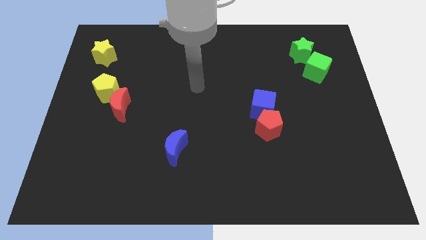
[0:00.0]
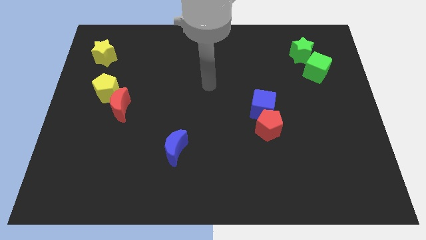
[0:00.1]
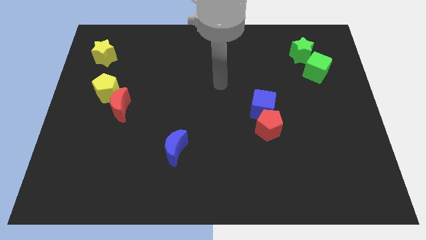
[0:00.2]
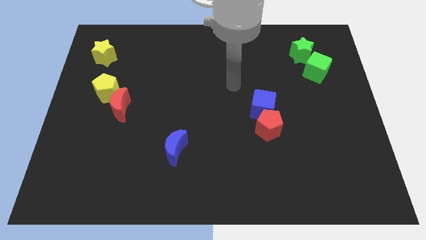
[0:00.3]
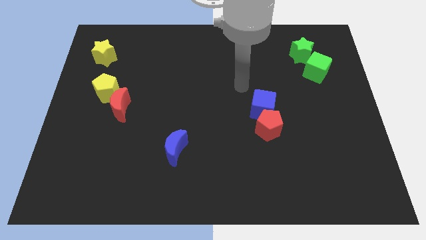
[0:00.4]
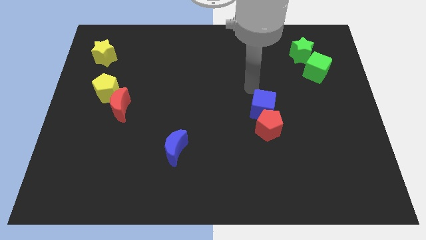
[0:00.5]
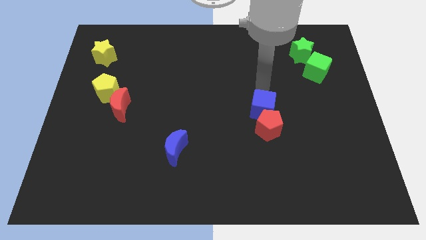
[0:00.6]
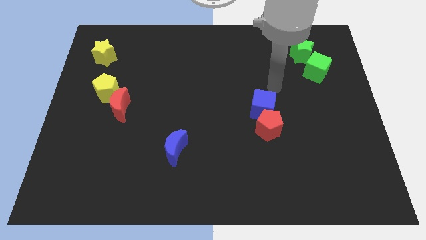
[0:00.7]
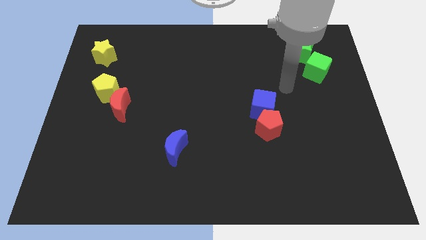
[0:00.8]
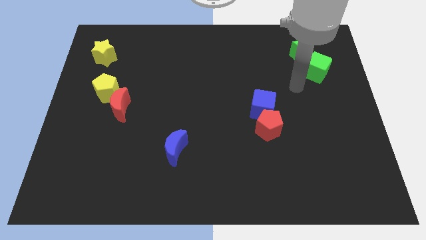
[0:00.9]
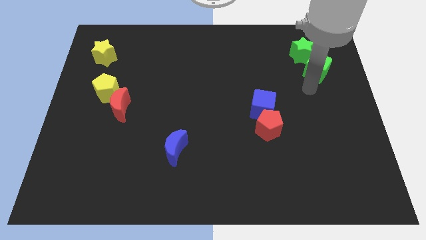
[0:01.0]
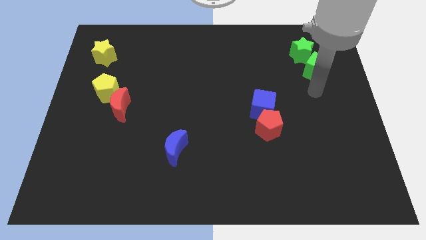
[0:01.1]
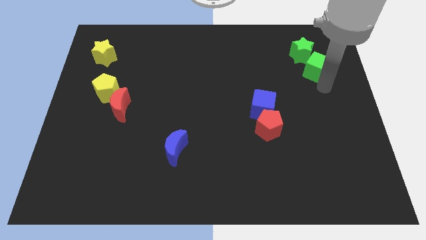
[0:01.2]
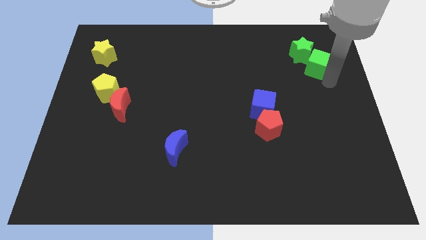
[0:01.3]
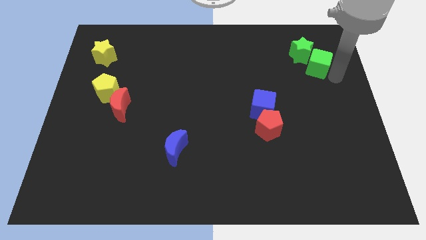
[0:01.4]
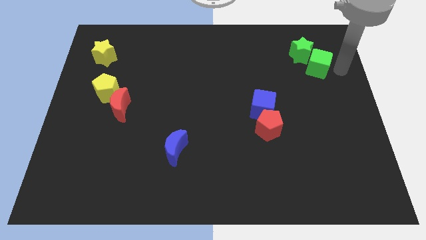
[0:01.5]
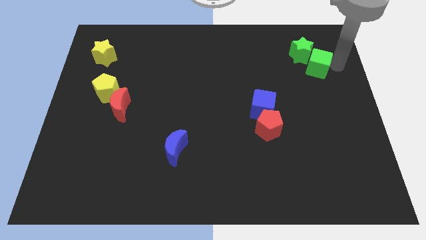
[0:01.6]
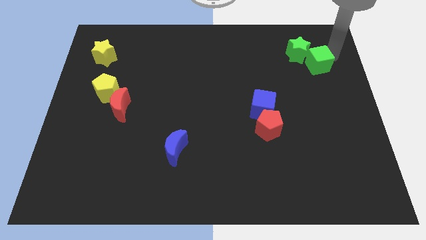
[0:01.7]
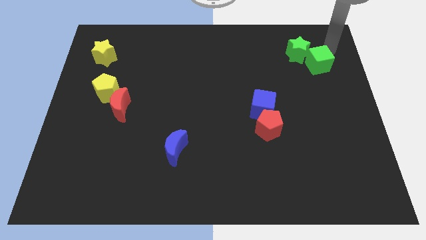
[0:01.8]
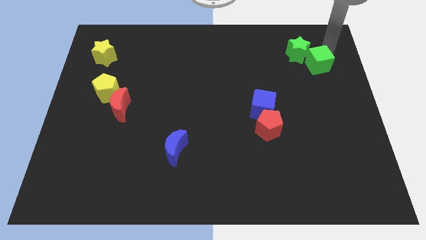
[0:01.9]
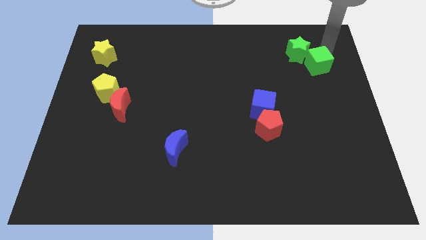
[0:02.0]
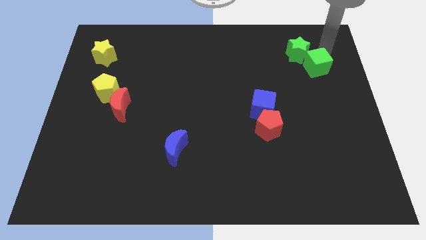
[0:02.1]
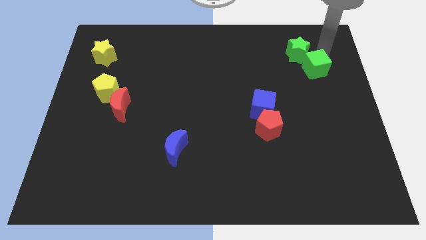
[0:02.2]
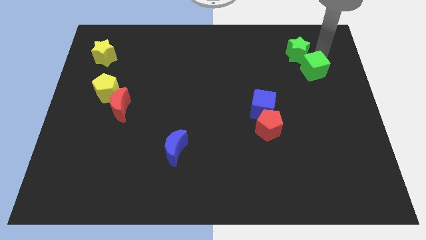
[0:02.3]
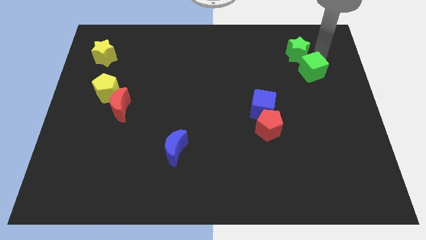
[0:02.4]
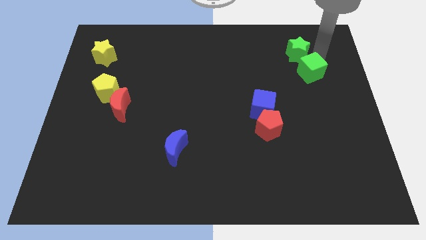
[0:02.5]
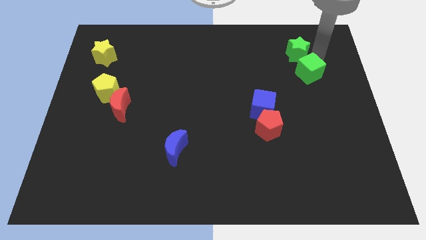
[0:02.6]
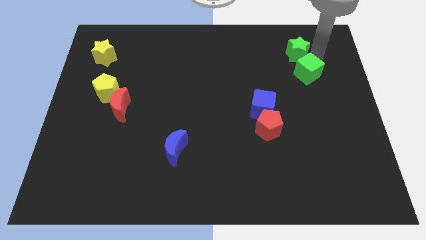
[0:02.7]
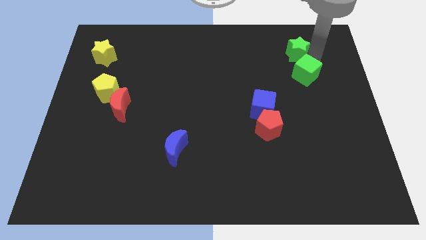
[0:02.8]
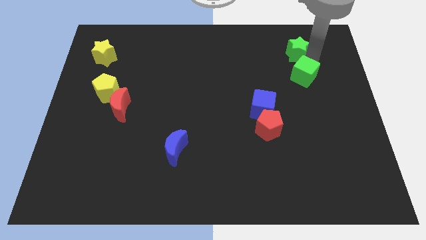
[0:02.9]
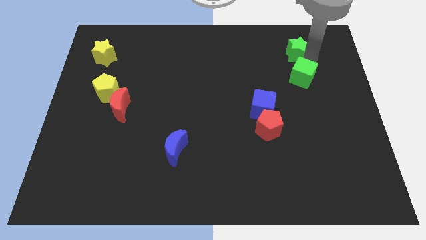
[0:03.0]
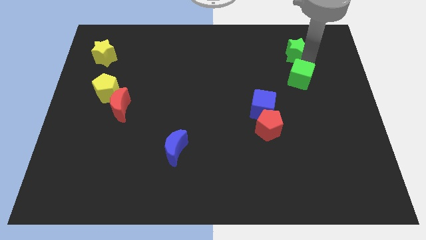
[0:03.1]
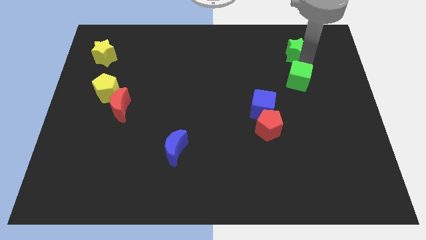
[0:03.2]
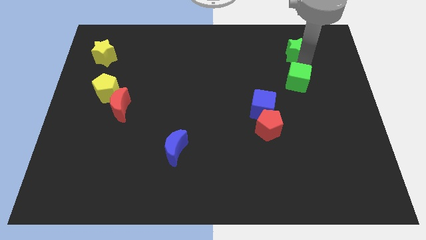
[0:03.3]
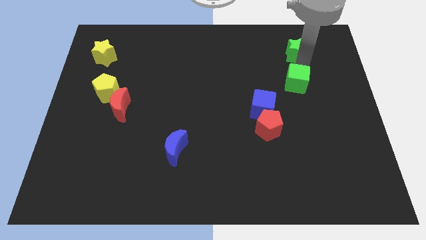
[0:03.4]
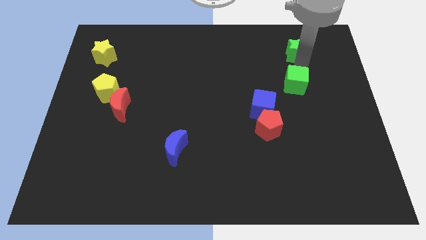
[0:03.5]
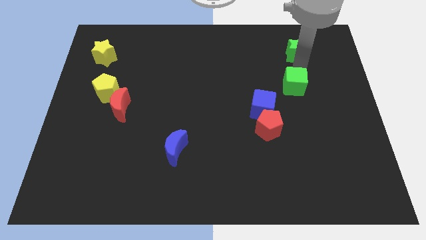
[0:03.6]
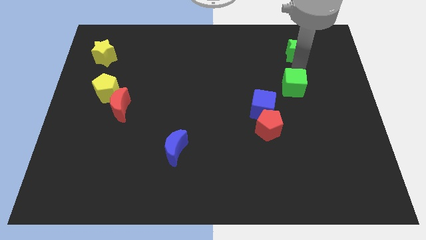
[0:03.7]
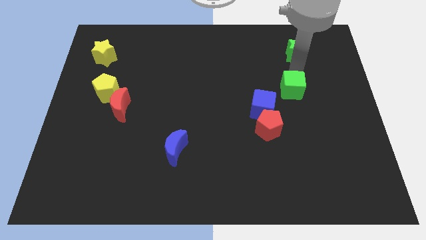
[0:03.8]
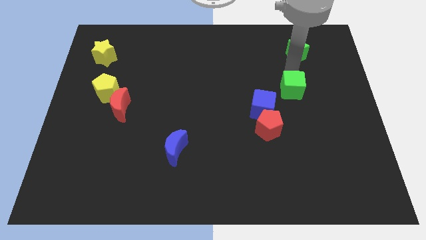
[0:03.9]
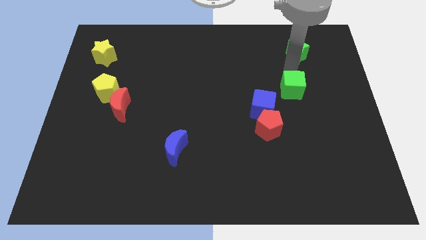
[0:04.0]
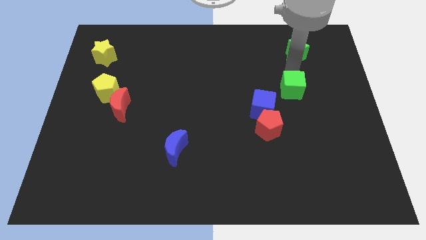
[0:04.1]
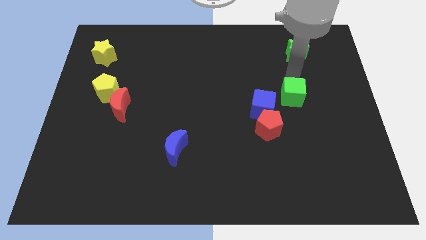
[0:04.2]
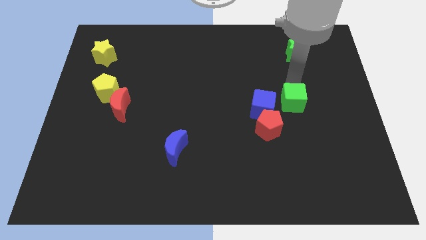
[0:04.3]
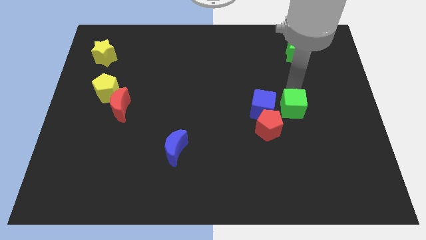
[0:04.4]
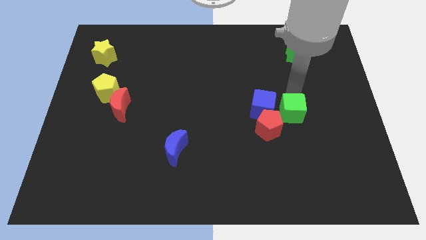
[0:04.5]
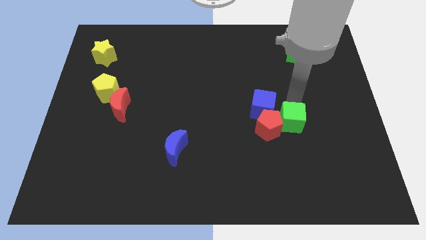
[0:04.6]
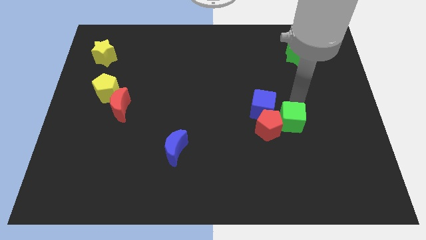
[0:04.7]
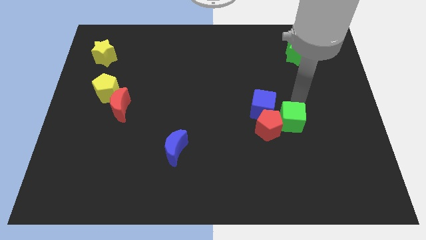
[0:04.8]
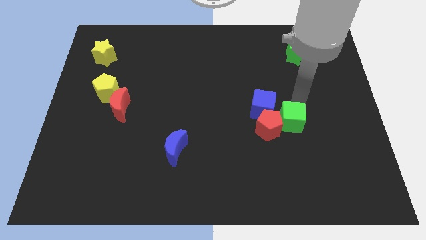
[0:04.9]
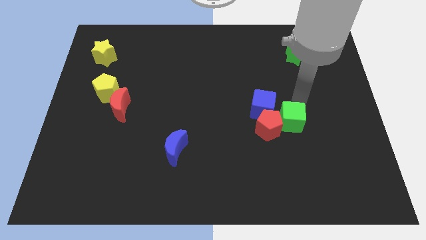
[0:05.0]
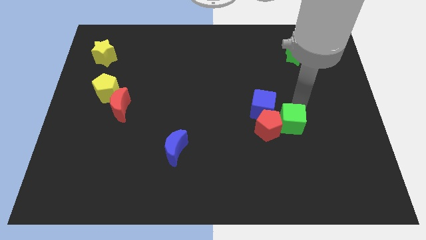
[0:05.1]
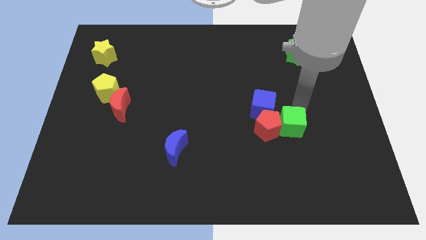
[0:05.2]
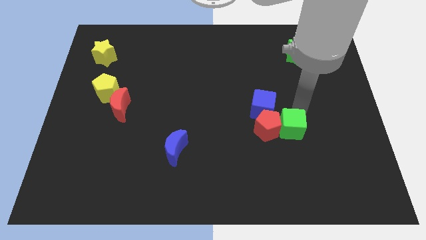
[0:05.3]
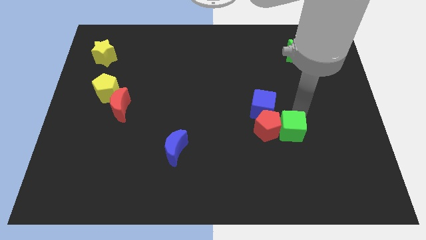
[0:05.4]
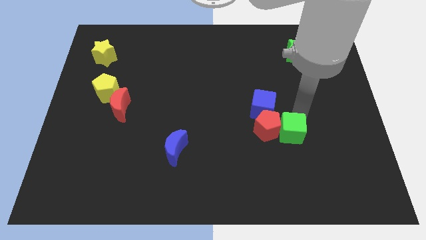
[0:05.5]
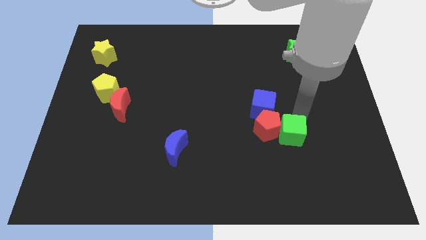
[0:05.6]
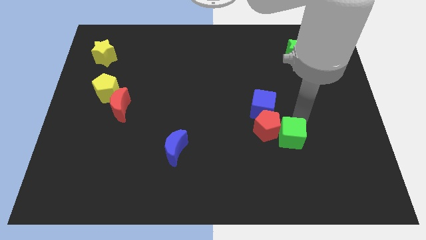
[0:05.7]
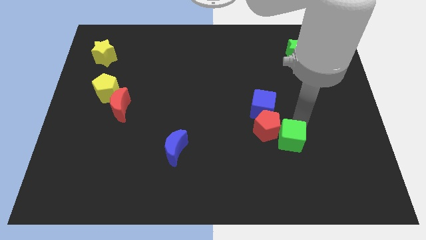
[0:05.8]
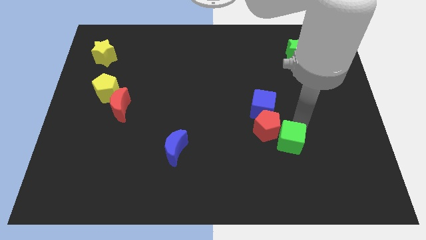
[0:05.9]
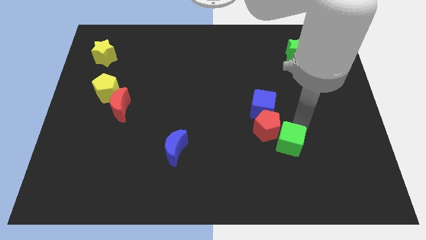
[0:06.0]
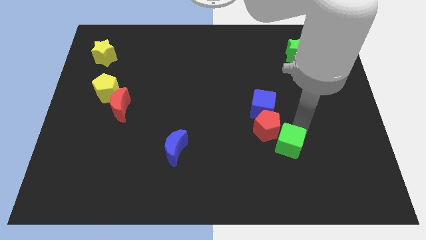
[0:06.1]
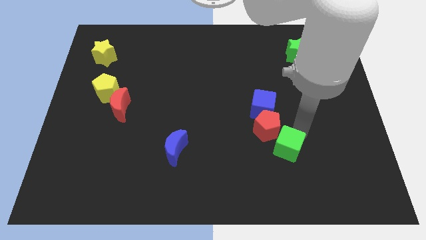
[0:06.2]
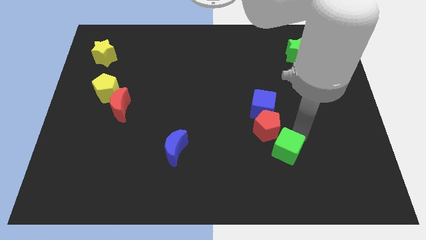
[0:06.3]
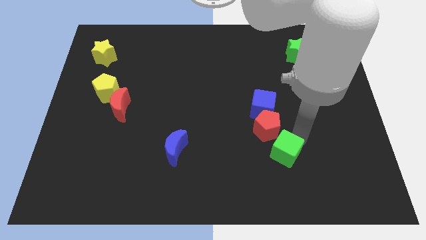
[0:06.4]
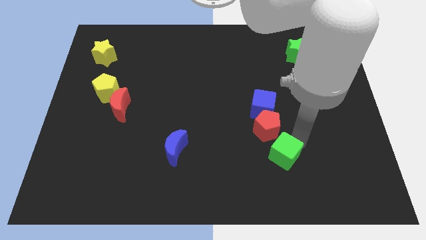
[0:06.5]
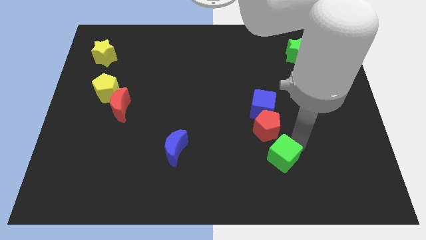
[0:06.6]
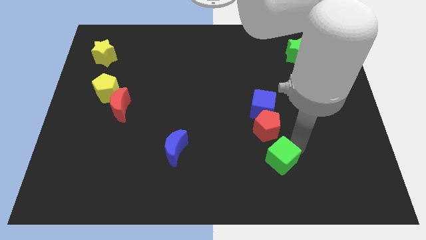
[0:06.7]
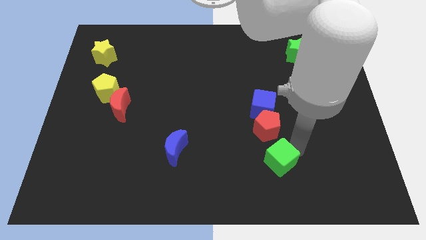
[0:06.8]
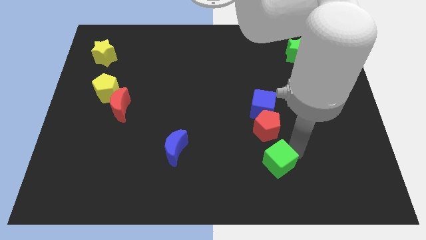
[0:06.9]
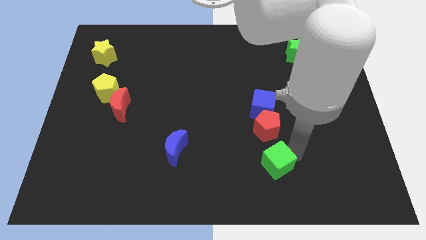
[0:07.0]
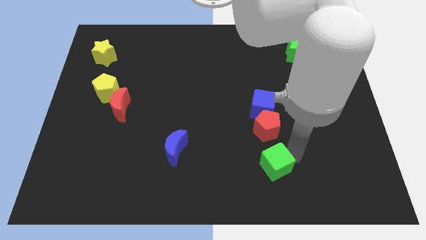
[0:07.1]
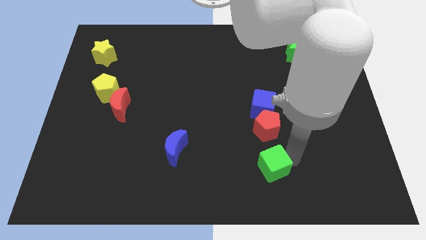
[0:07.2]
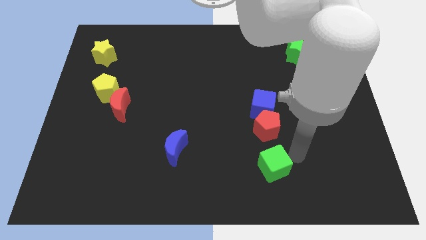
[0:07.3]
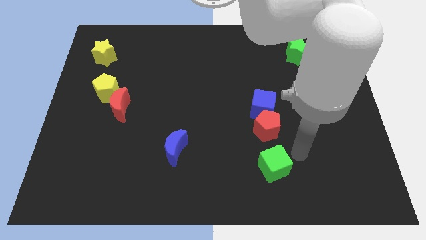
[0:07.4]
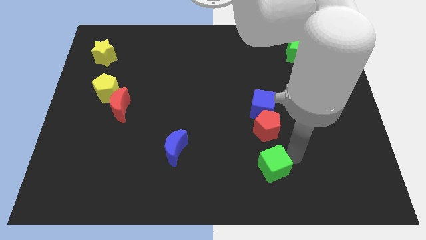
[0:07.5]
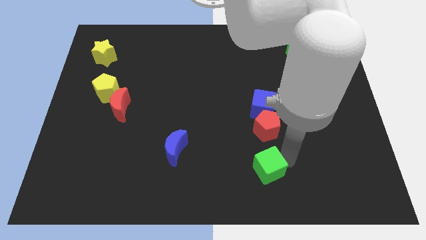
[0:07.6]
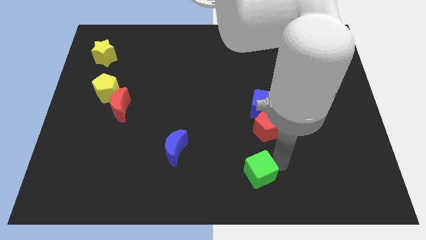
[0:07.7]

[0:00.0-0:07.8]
move the green cube to the bottom
